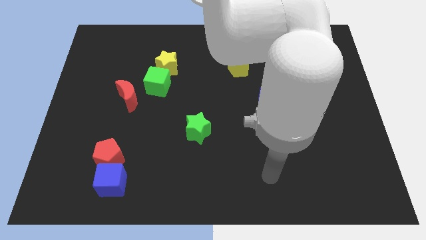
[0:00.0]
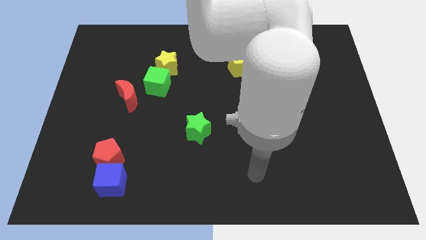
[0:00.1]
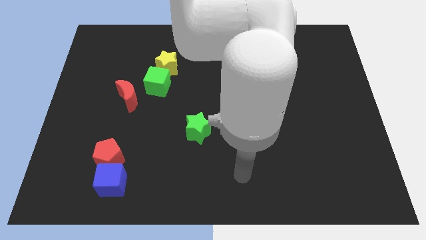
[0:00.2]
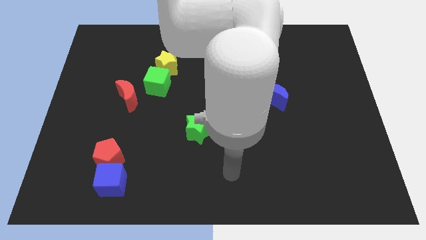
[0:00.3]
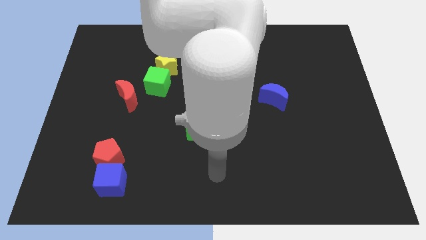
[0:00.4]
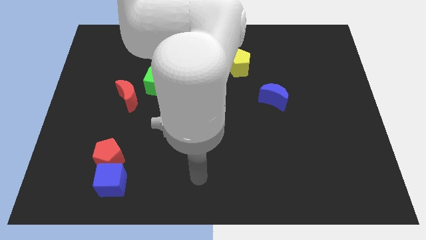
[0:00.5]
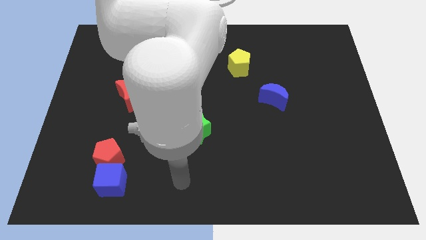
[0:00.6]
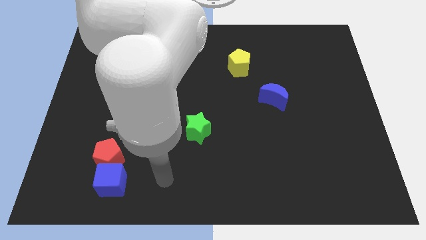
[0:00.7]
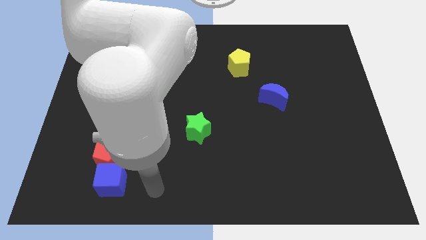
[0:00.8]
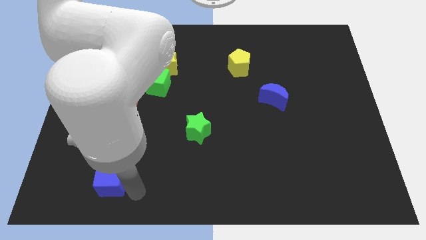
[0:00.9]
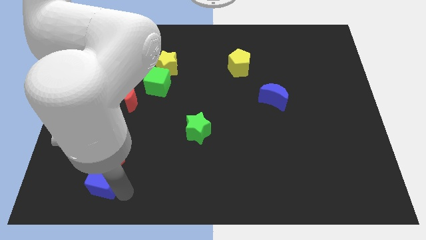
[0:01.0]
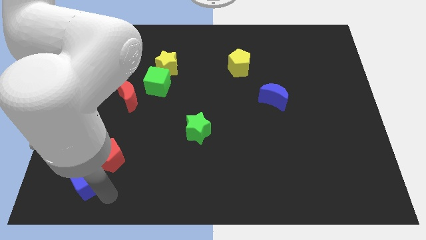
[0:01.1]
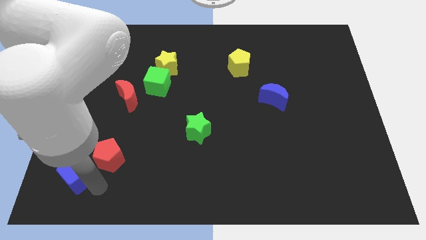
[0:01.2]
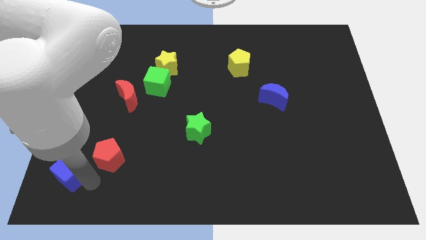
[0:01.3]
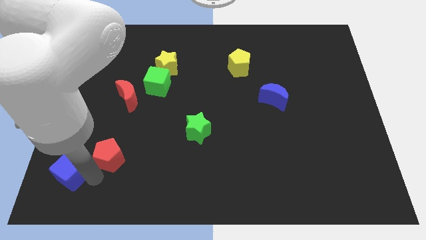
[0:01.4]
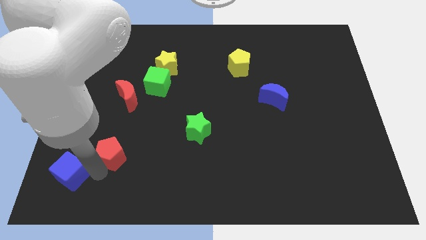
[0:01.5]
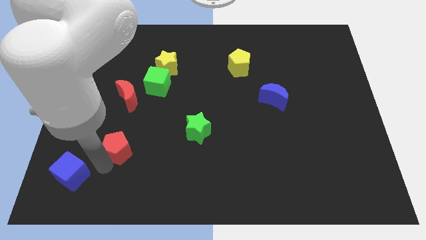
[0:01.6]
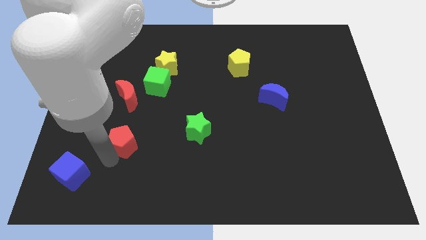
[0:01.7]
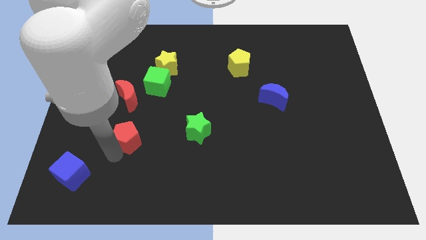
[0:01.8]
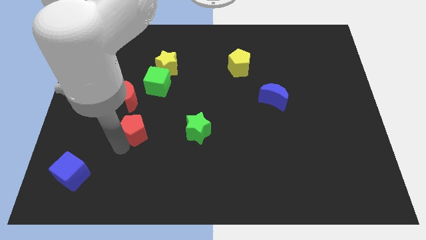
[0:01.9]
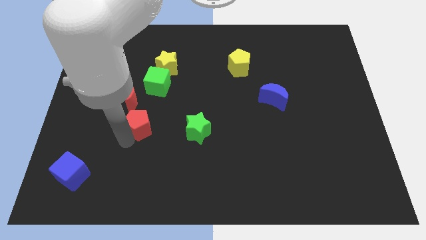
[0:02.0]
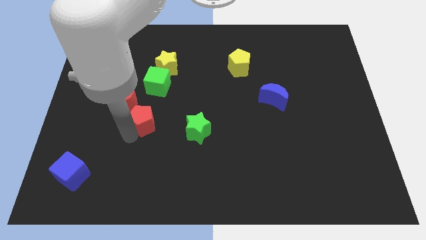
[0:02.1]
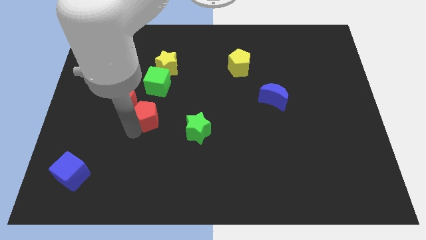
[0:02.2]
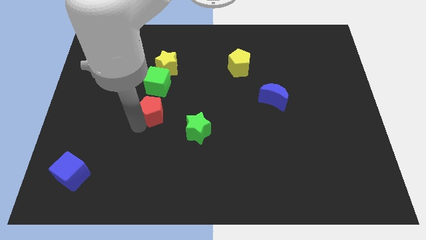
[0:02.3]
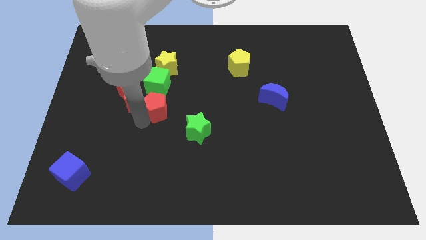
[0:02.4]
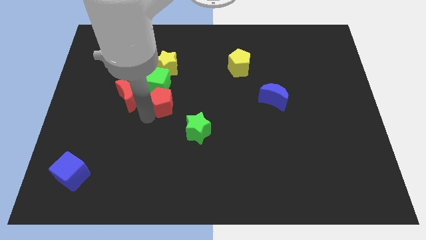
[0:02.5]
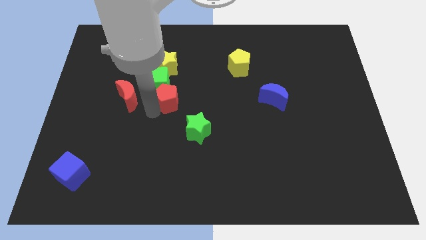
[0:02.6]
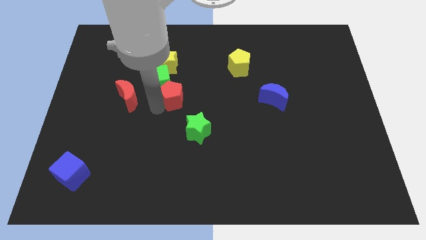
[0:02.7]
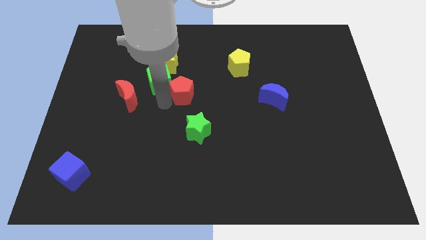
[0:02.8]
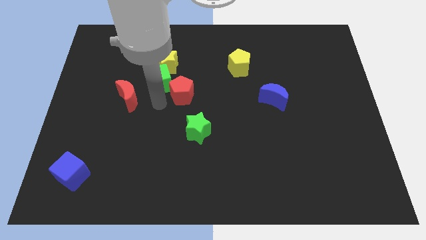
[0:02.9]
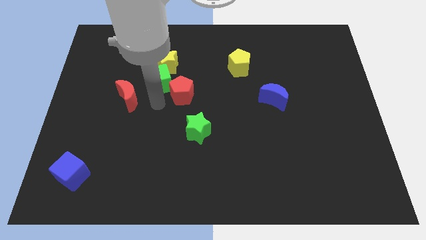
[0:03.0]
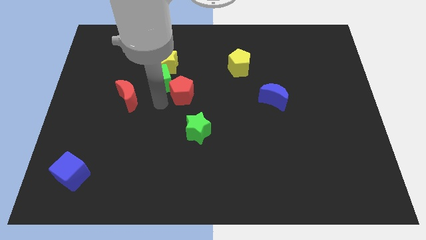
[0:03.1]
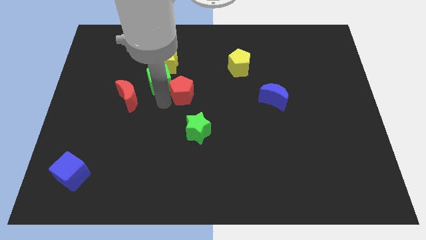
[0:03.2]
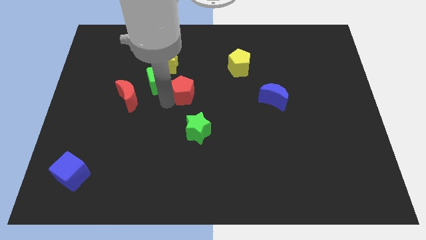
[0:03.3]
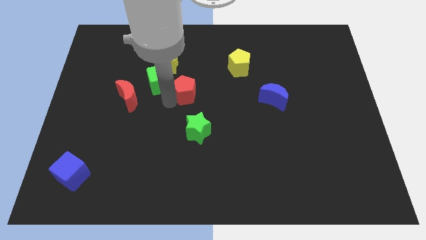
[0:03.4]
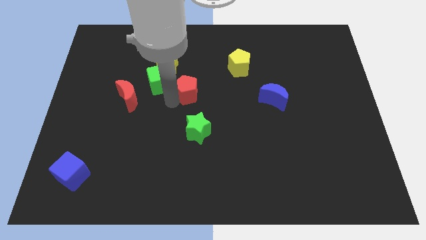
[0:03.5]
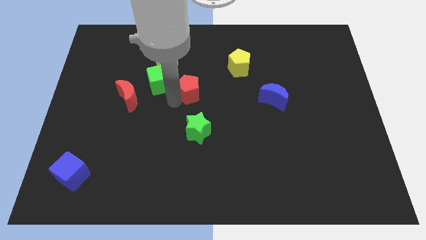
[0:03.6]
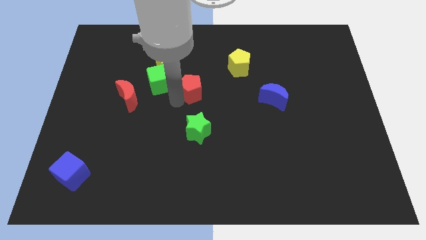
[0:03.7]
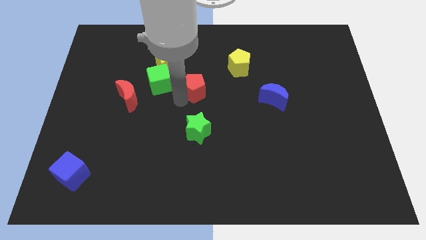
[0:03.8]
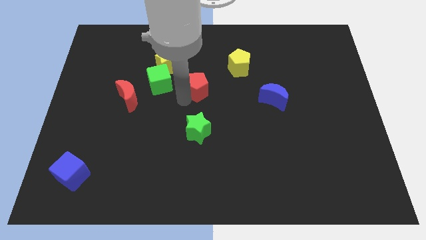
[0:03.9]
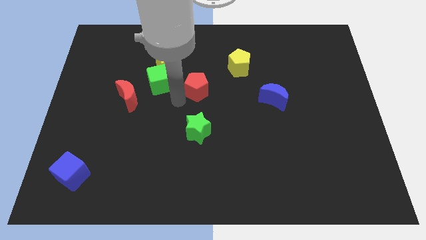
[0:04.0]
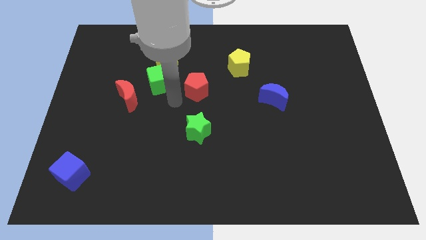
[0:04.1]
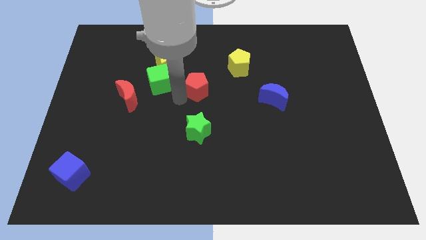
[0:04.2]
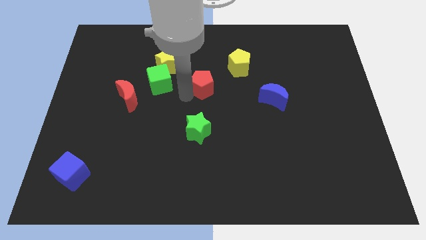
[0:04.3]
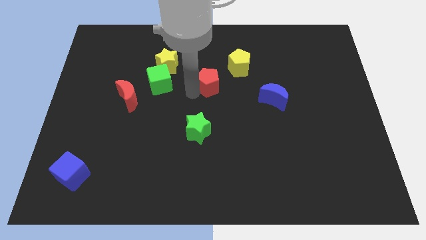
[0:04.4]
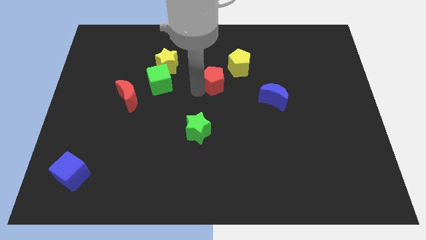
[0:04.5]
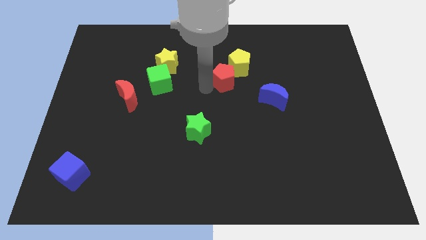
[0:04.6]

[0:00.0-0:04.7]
push the red pentagon close to the yellow pentagon

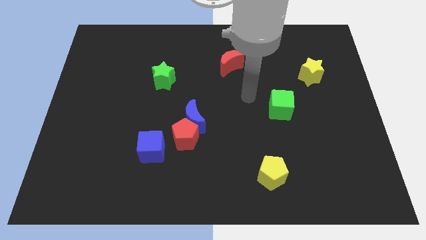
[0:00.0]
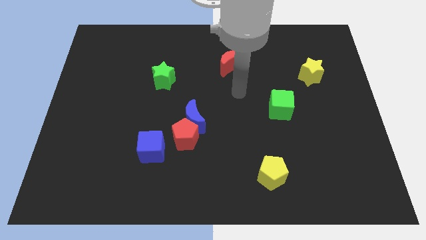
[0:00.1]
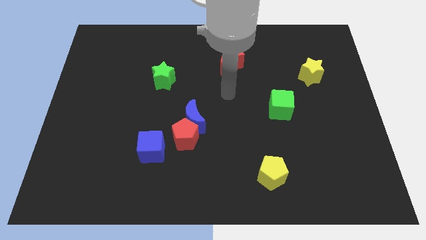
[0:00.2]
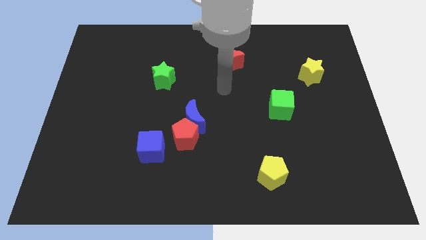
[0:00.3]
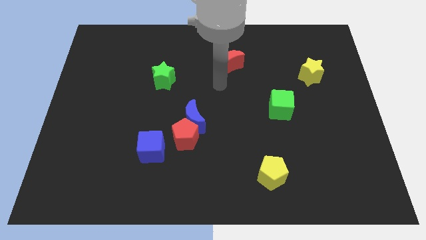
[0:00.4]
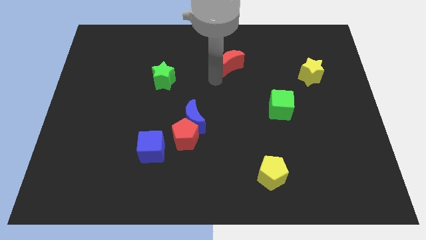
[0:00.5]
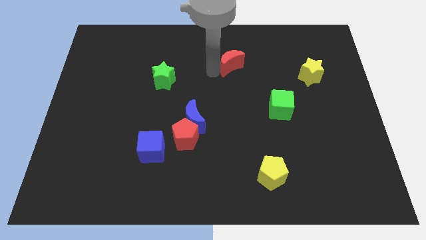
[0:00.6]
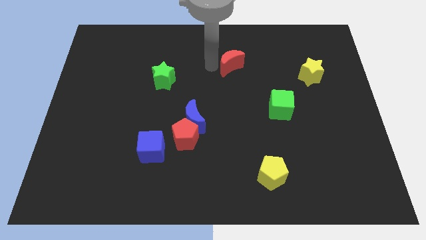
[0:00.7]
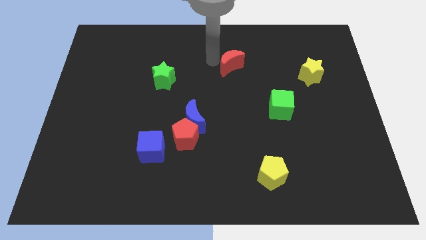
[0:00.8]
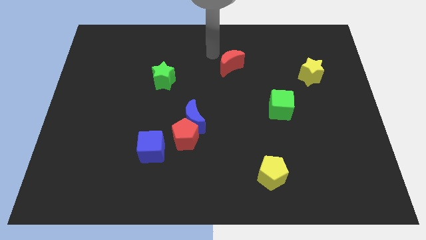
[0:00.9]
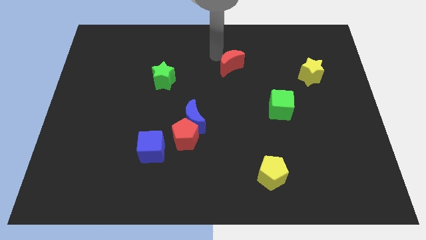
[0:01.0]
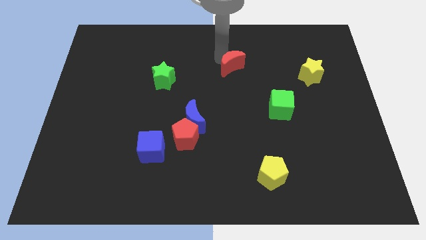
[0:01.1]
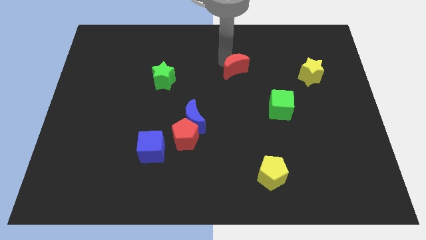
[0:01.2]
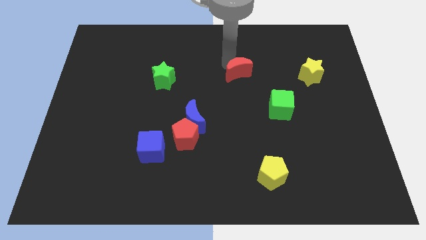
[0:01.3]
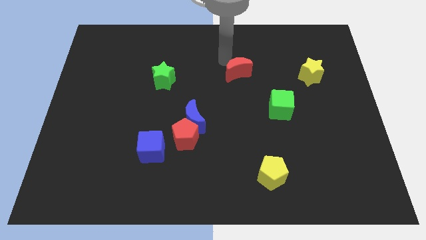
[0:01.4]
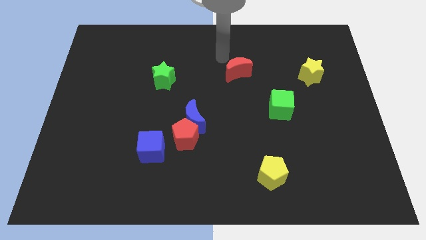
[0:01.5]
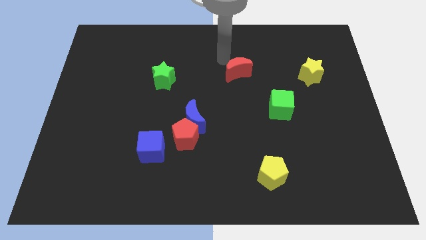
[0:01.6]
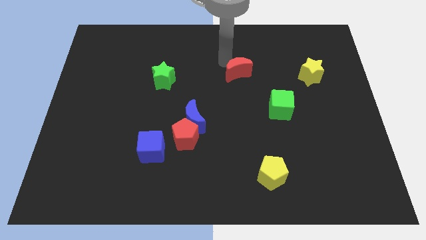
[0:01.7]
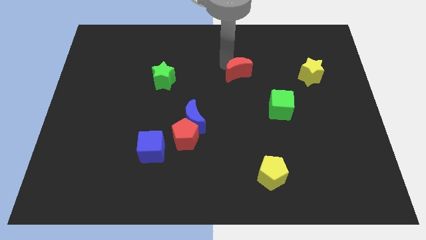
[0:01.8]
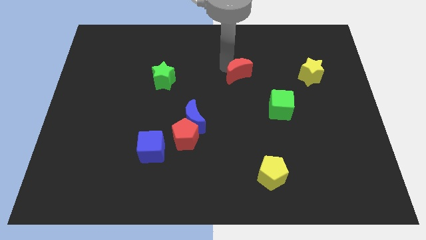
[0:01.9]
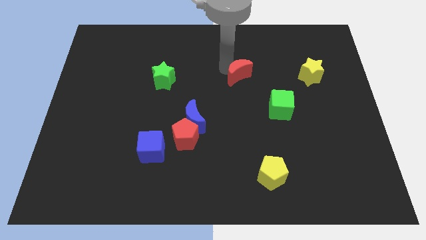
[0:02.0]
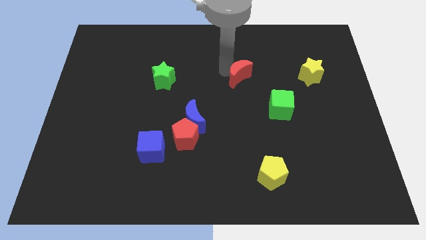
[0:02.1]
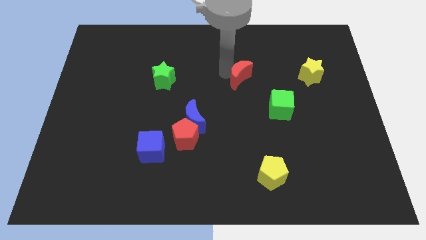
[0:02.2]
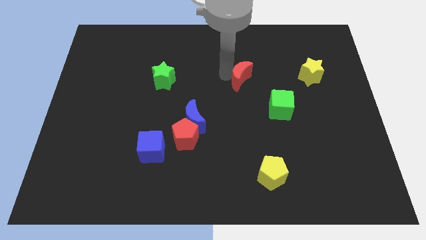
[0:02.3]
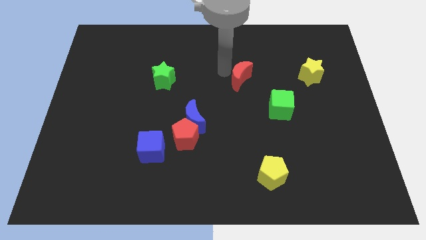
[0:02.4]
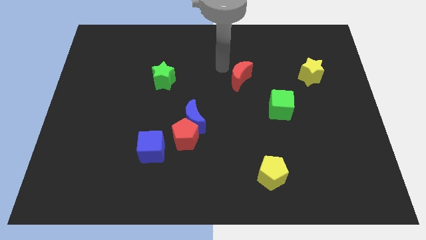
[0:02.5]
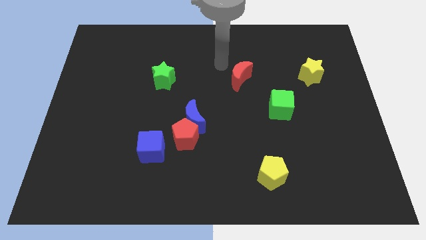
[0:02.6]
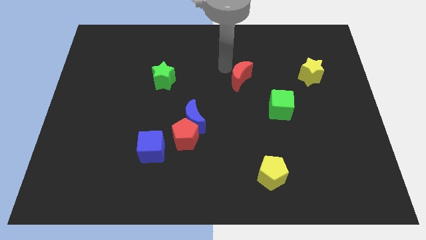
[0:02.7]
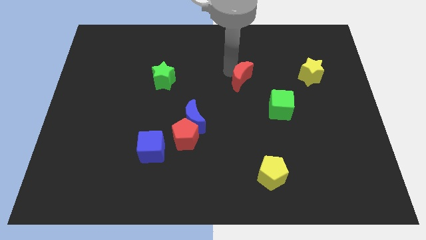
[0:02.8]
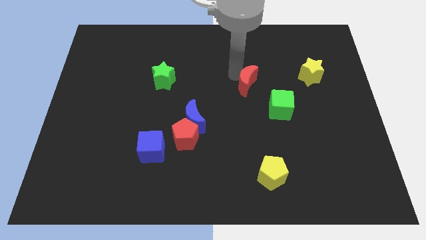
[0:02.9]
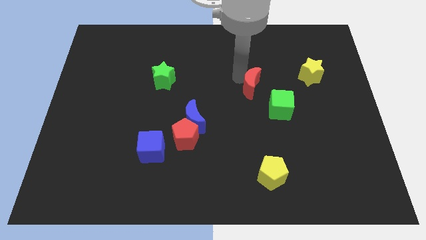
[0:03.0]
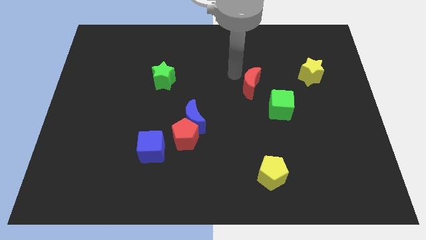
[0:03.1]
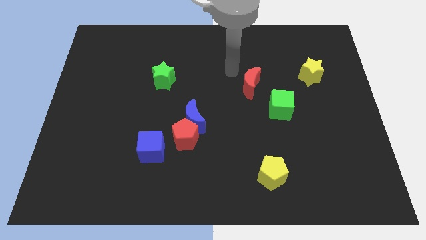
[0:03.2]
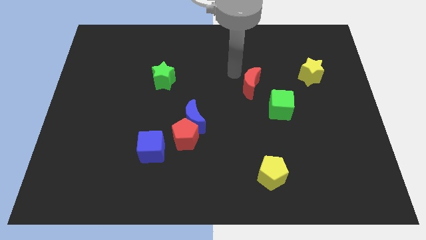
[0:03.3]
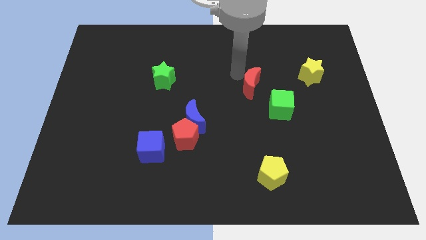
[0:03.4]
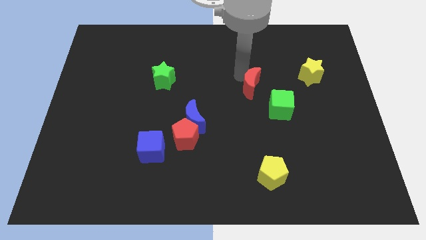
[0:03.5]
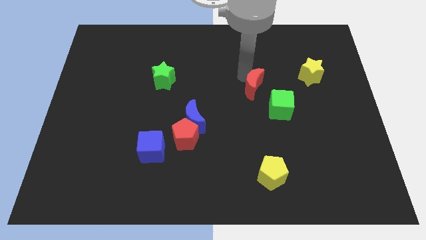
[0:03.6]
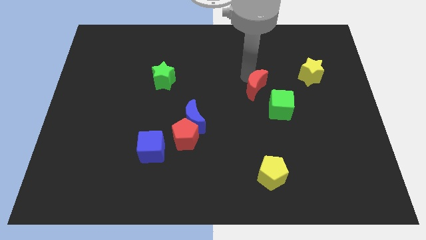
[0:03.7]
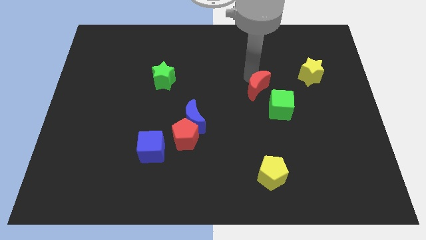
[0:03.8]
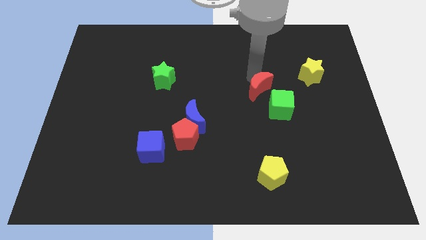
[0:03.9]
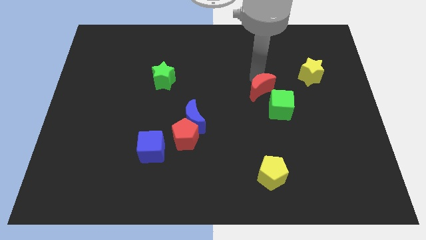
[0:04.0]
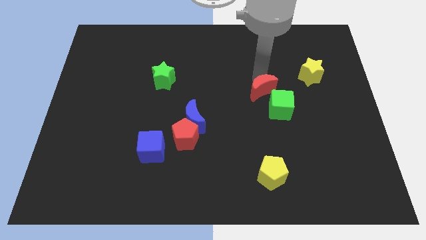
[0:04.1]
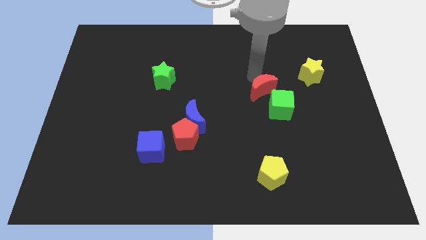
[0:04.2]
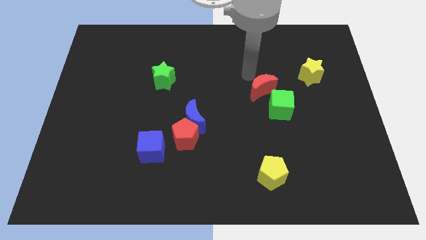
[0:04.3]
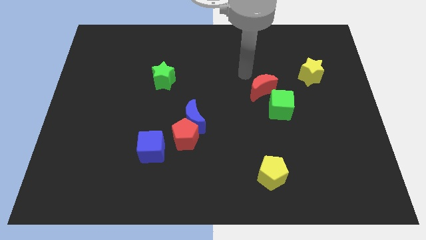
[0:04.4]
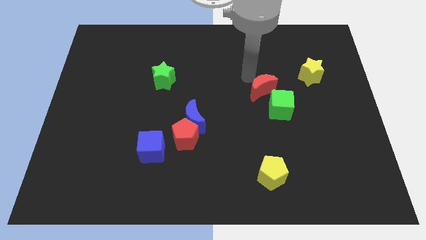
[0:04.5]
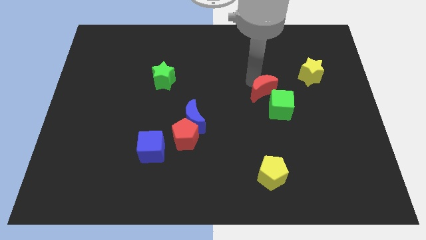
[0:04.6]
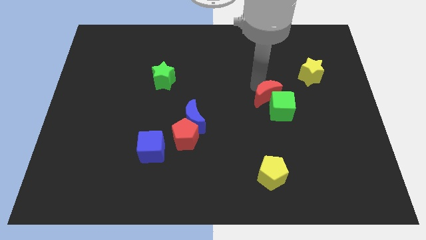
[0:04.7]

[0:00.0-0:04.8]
put the red moon close to the green cube
